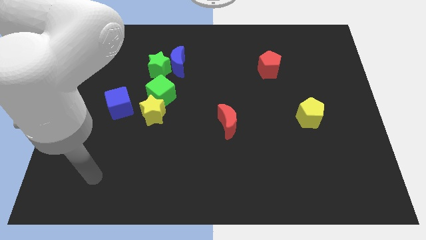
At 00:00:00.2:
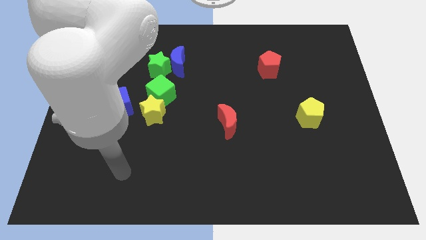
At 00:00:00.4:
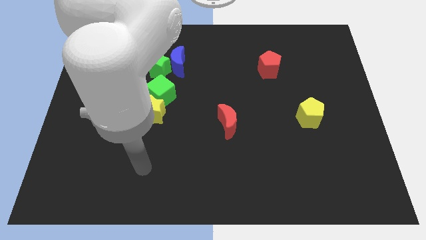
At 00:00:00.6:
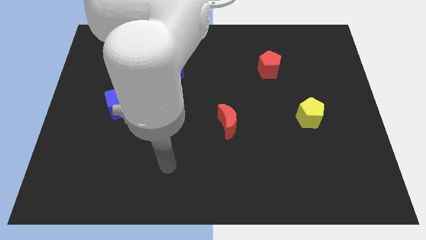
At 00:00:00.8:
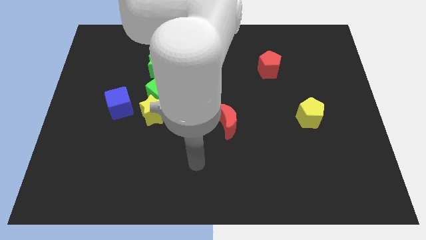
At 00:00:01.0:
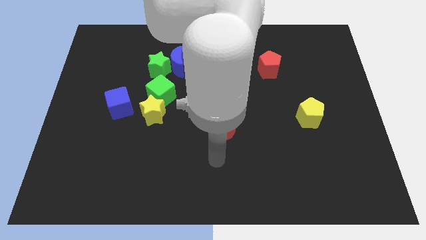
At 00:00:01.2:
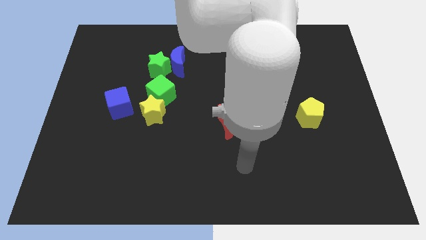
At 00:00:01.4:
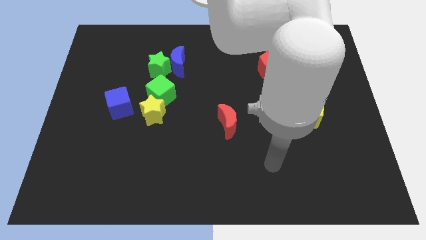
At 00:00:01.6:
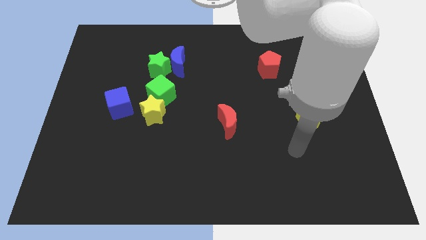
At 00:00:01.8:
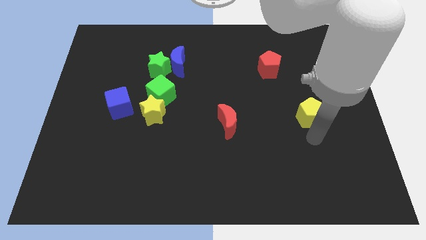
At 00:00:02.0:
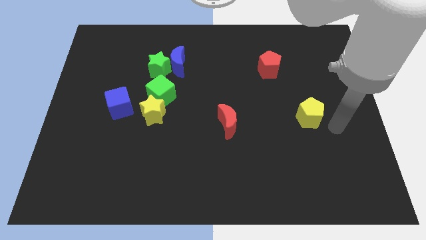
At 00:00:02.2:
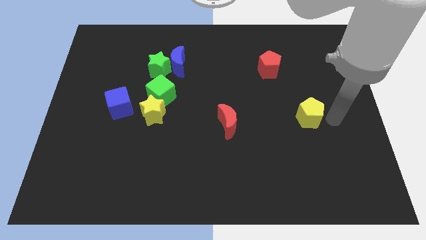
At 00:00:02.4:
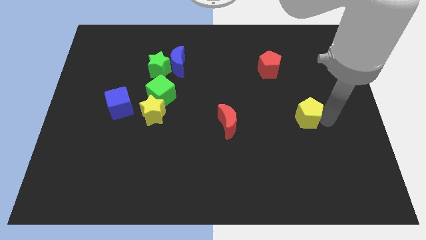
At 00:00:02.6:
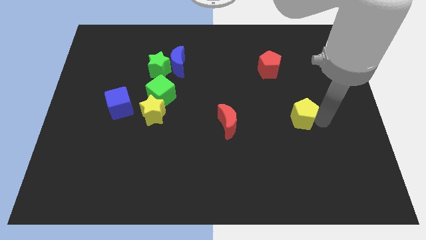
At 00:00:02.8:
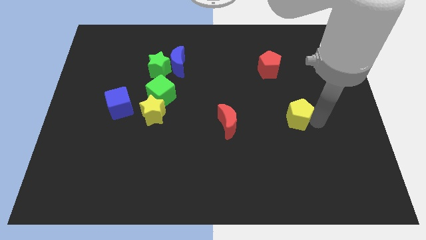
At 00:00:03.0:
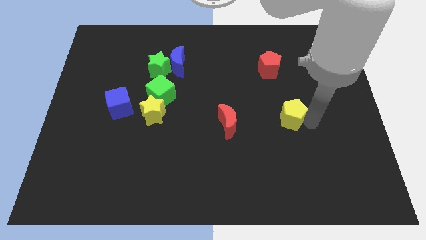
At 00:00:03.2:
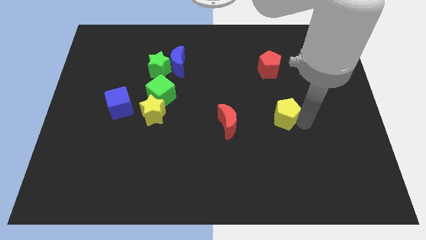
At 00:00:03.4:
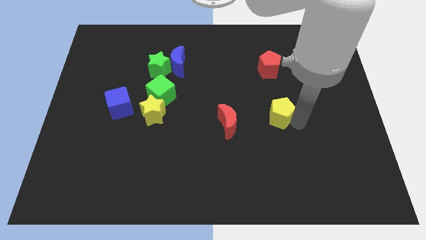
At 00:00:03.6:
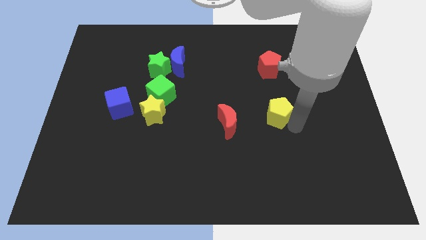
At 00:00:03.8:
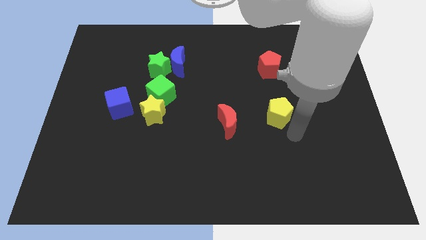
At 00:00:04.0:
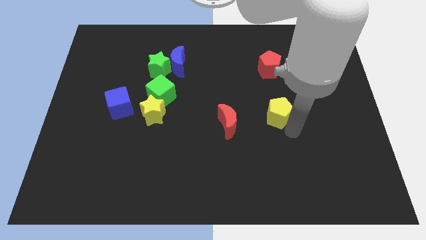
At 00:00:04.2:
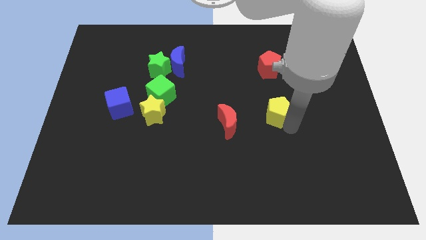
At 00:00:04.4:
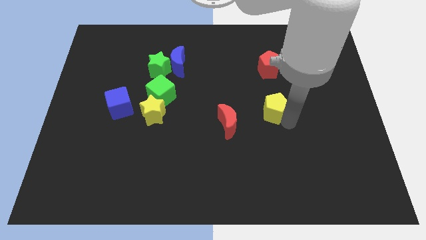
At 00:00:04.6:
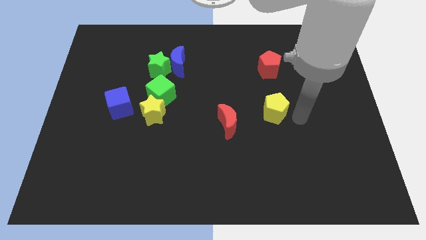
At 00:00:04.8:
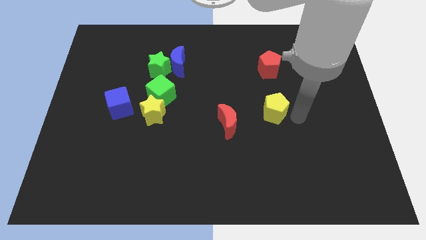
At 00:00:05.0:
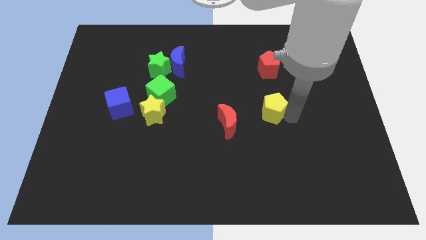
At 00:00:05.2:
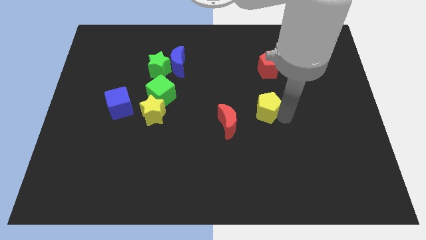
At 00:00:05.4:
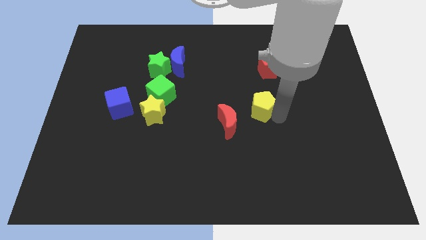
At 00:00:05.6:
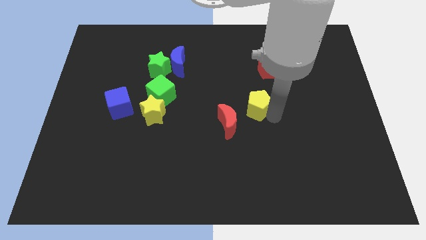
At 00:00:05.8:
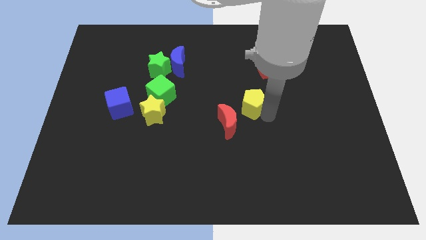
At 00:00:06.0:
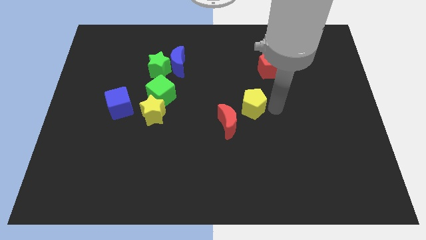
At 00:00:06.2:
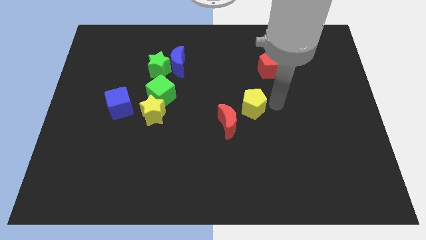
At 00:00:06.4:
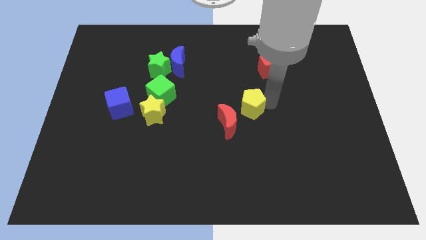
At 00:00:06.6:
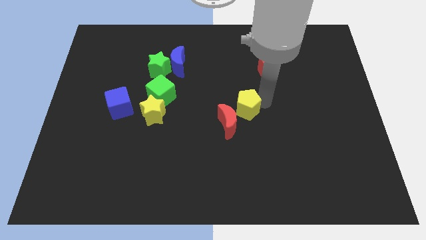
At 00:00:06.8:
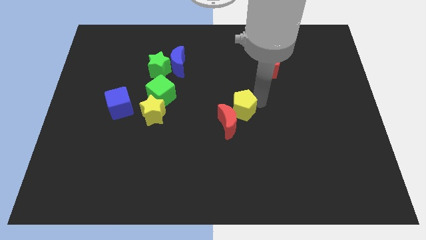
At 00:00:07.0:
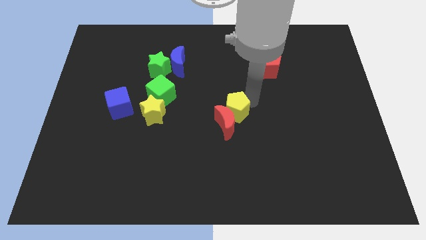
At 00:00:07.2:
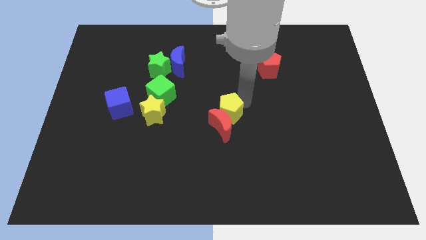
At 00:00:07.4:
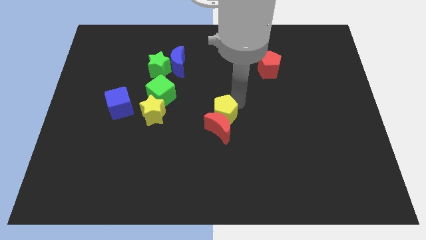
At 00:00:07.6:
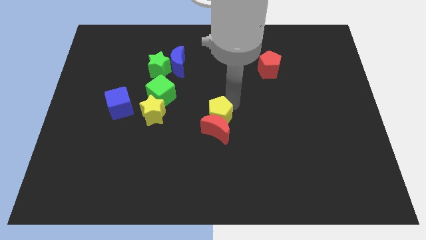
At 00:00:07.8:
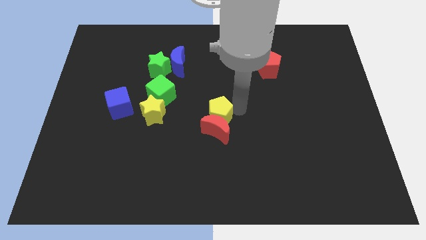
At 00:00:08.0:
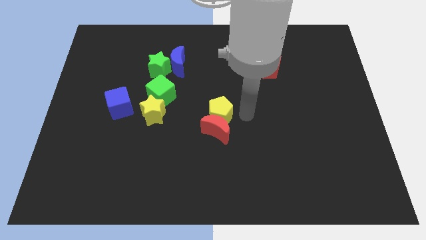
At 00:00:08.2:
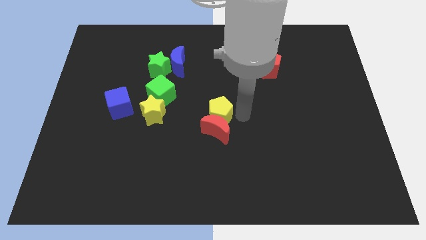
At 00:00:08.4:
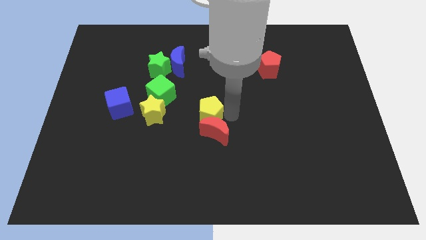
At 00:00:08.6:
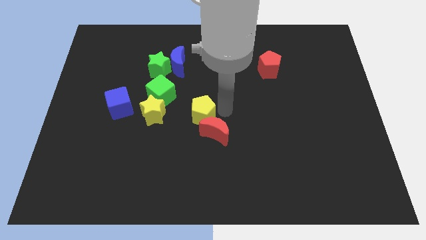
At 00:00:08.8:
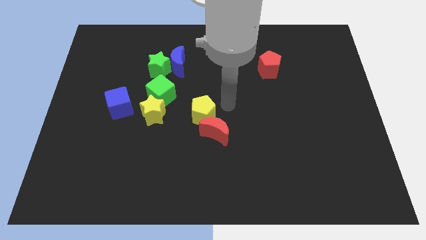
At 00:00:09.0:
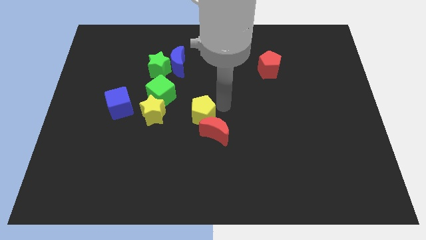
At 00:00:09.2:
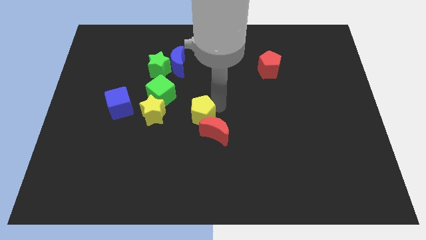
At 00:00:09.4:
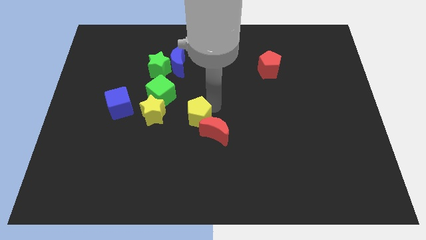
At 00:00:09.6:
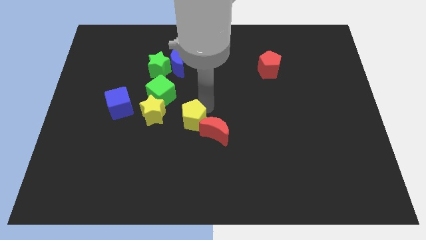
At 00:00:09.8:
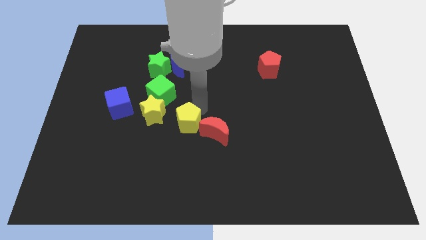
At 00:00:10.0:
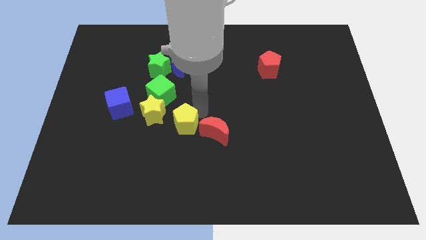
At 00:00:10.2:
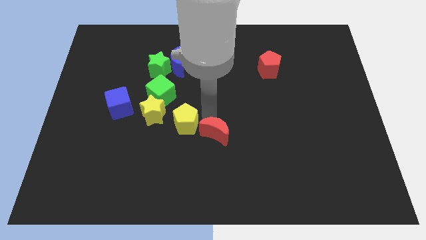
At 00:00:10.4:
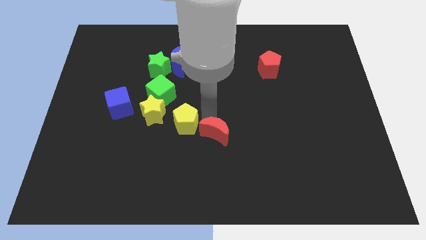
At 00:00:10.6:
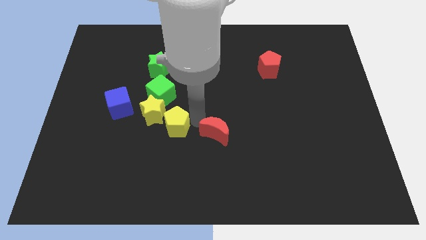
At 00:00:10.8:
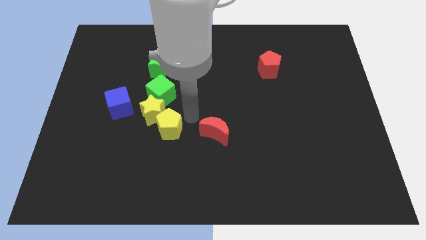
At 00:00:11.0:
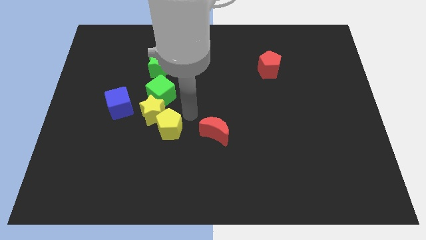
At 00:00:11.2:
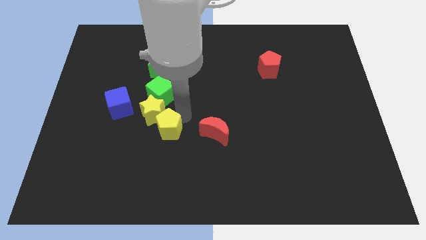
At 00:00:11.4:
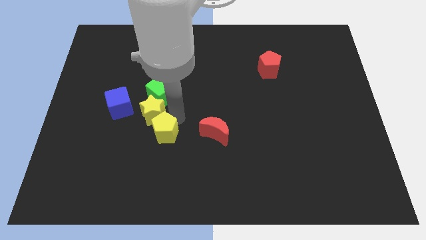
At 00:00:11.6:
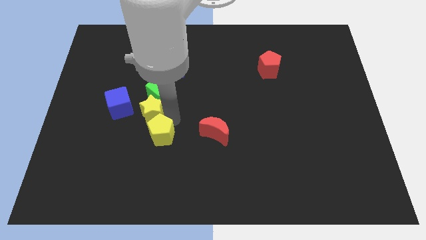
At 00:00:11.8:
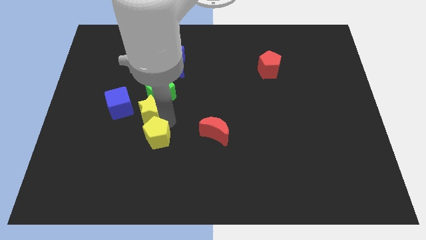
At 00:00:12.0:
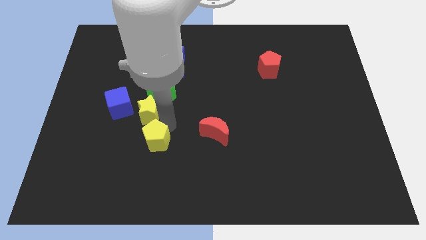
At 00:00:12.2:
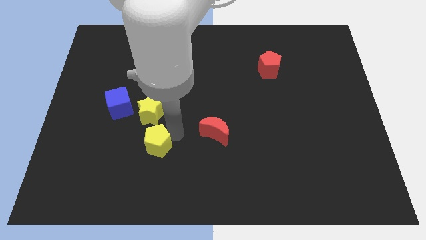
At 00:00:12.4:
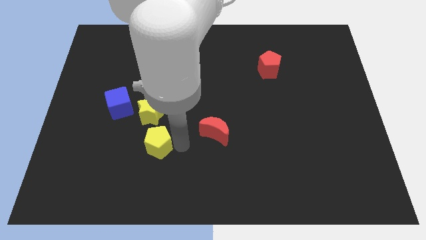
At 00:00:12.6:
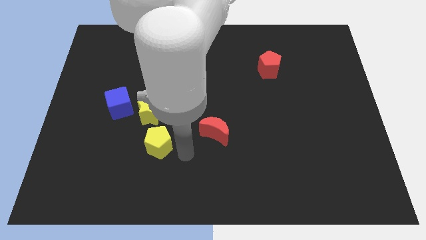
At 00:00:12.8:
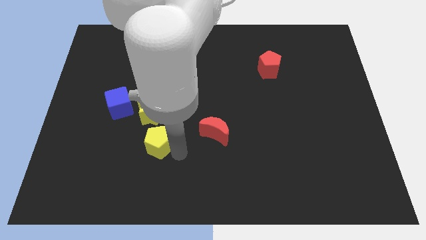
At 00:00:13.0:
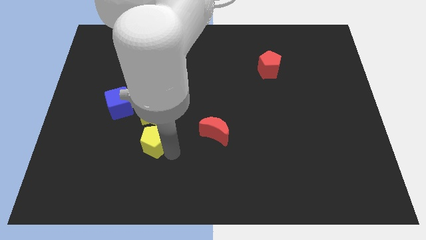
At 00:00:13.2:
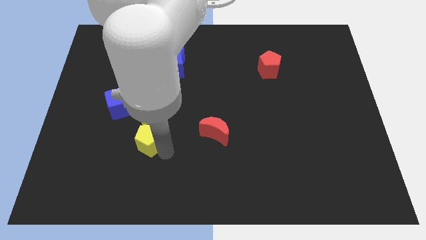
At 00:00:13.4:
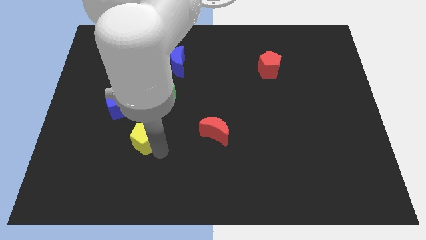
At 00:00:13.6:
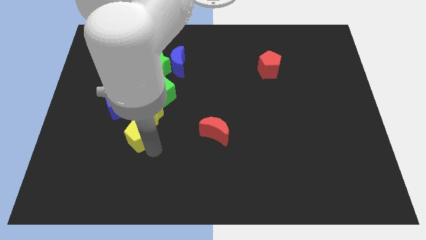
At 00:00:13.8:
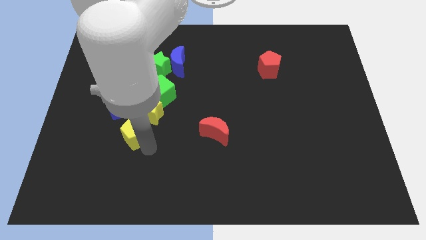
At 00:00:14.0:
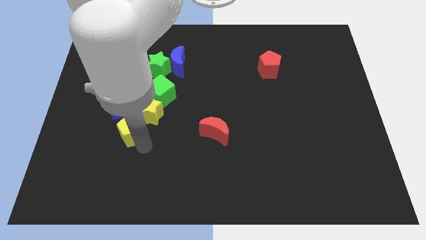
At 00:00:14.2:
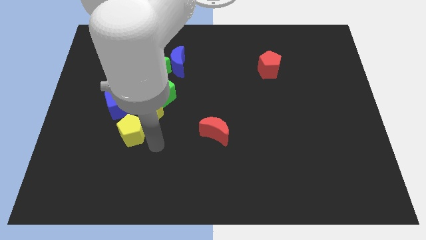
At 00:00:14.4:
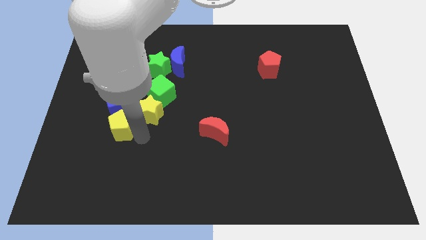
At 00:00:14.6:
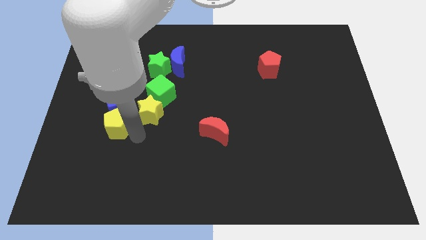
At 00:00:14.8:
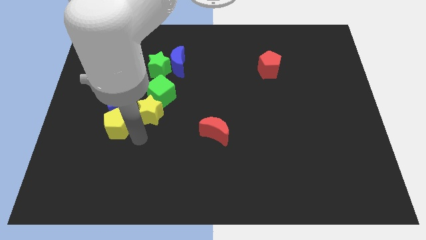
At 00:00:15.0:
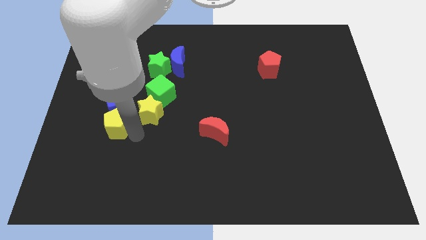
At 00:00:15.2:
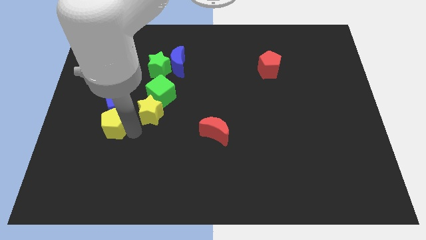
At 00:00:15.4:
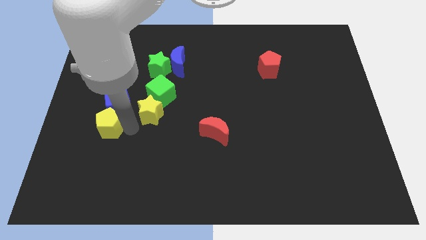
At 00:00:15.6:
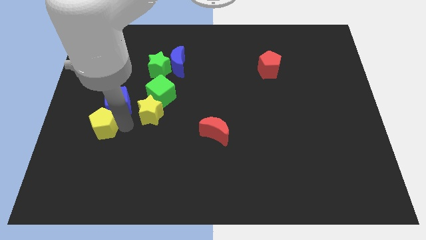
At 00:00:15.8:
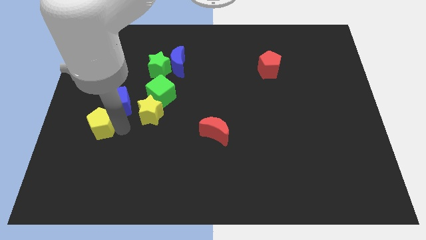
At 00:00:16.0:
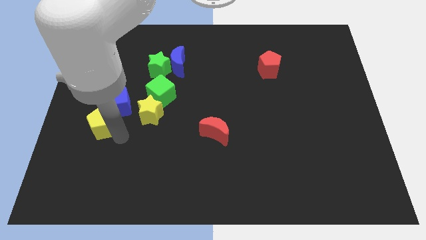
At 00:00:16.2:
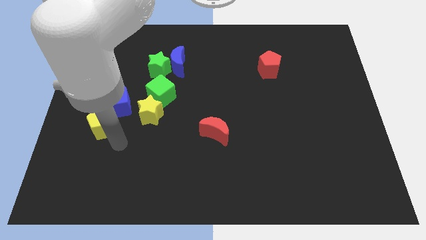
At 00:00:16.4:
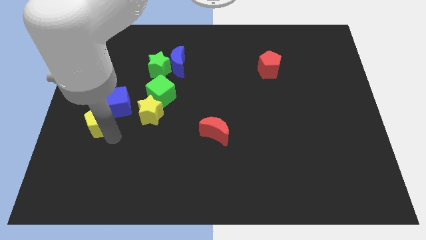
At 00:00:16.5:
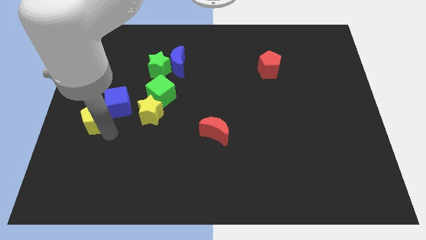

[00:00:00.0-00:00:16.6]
move the yellow pentagon to the center left
